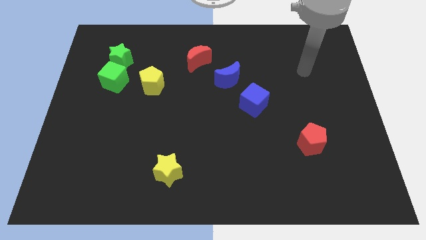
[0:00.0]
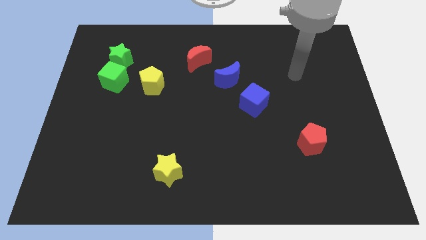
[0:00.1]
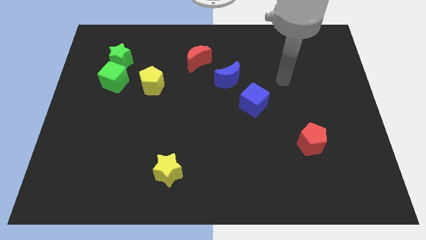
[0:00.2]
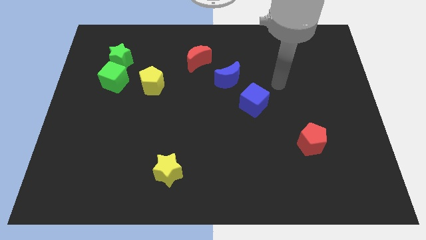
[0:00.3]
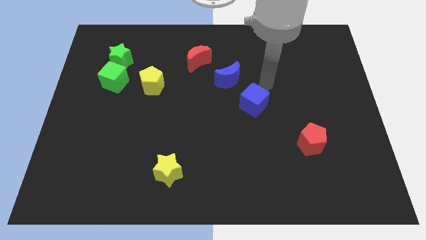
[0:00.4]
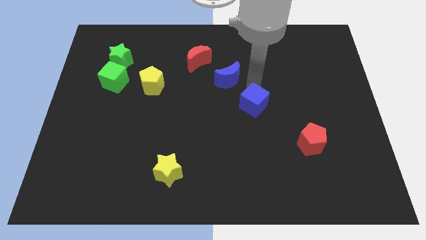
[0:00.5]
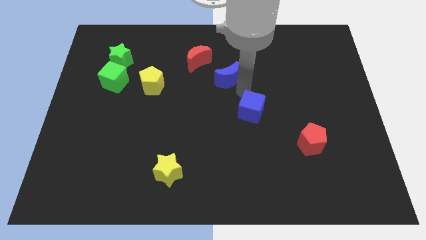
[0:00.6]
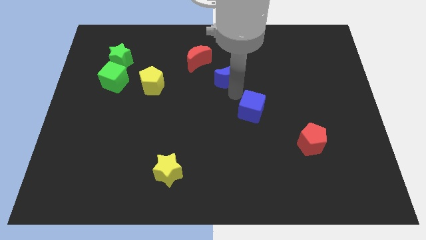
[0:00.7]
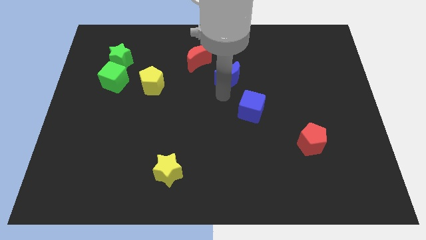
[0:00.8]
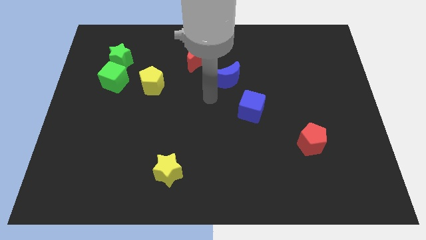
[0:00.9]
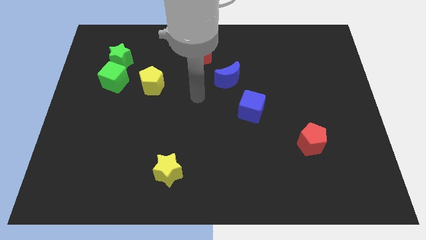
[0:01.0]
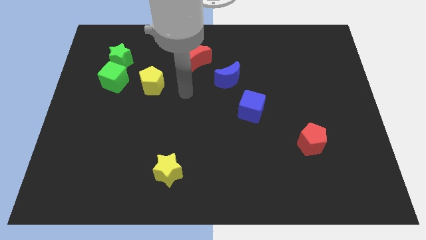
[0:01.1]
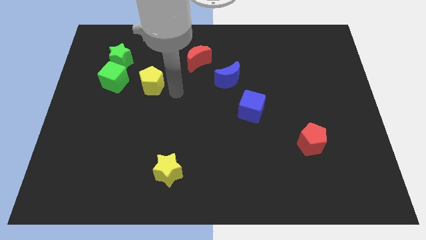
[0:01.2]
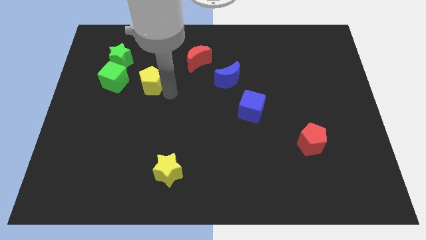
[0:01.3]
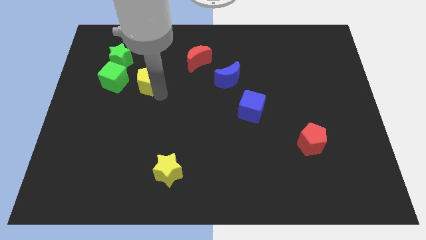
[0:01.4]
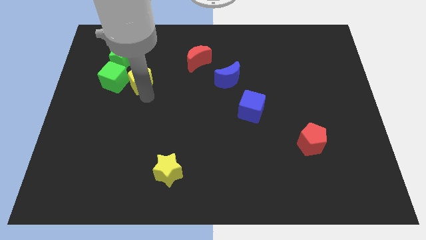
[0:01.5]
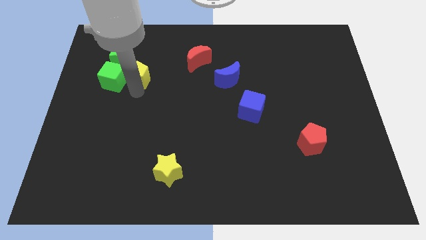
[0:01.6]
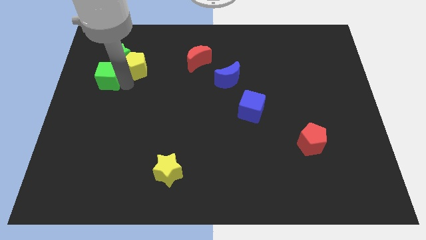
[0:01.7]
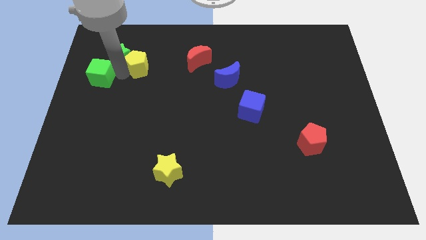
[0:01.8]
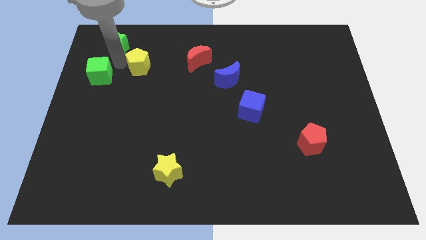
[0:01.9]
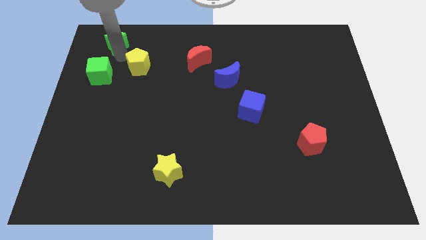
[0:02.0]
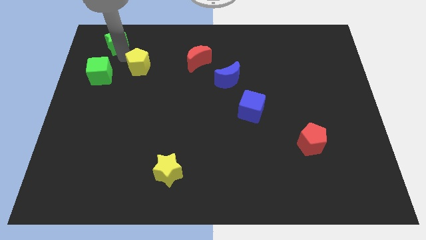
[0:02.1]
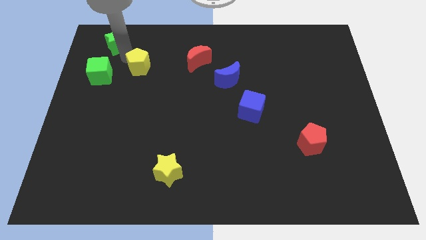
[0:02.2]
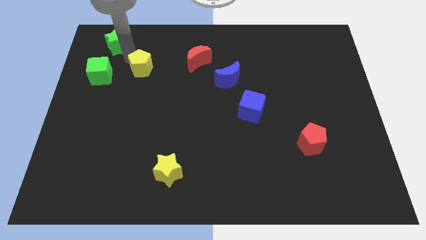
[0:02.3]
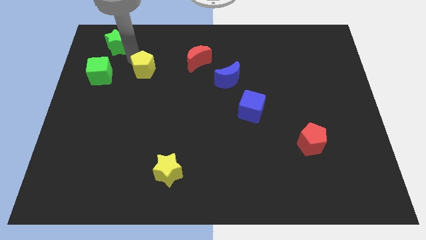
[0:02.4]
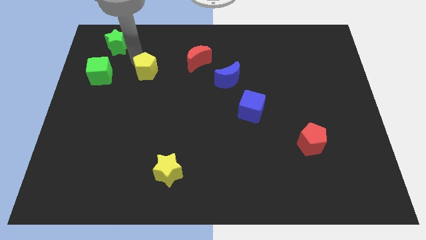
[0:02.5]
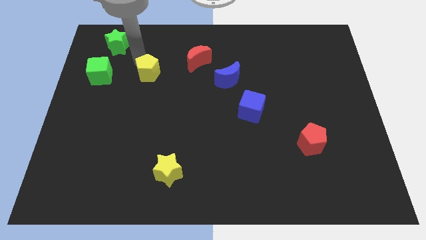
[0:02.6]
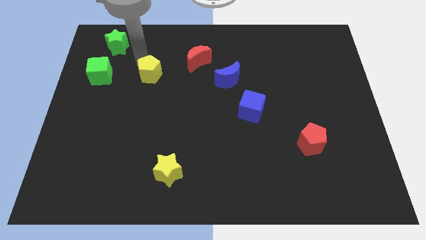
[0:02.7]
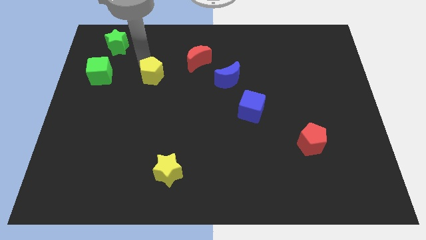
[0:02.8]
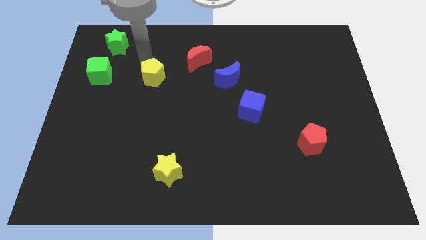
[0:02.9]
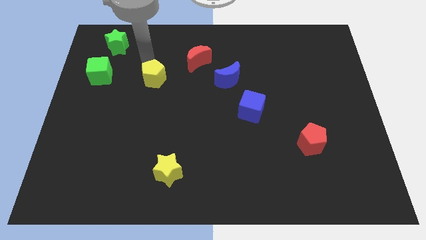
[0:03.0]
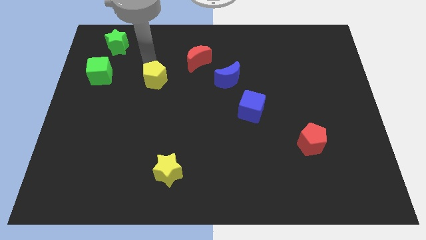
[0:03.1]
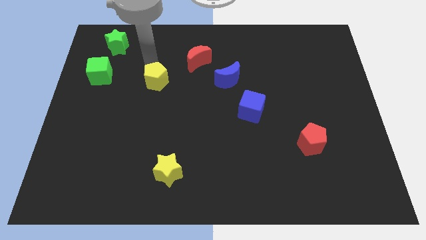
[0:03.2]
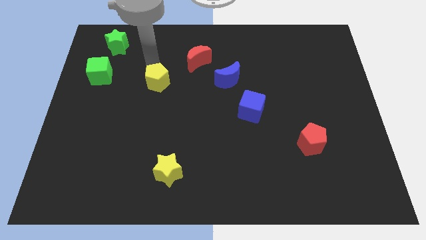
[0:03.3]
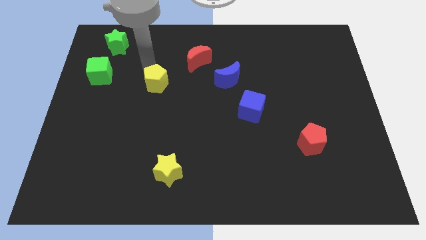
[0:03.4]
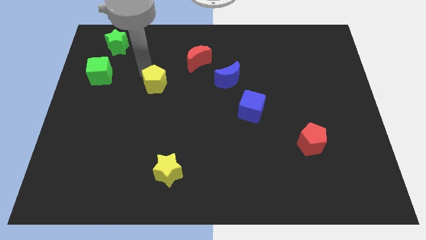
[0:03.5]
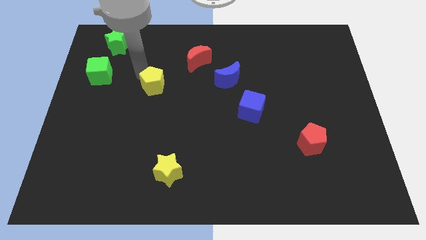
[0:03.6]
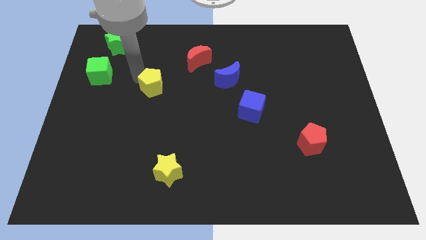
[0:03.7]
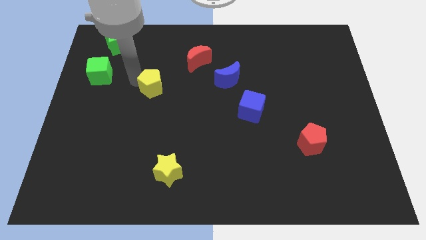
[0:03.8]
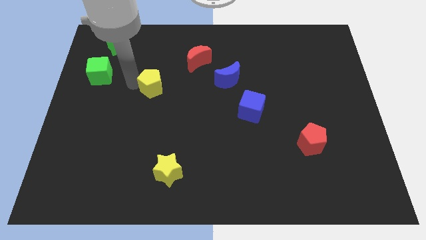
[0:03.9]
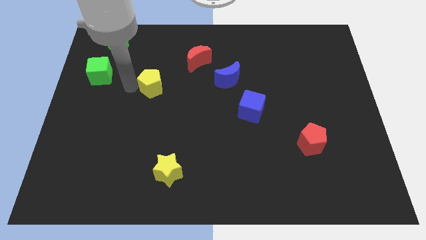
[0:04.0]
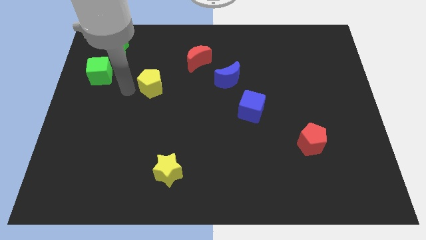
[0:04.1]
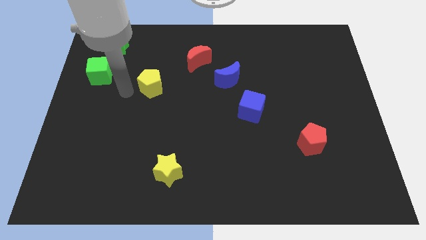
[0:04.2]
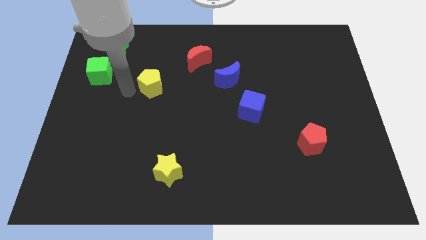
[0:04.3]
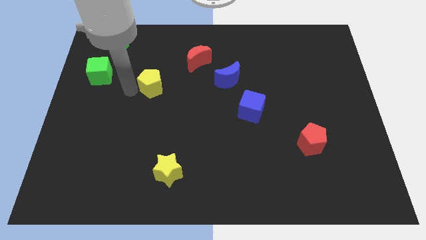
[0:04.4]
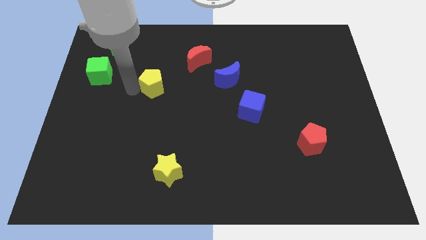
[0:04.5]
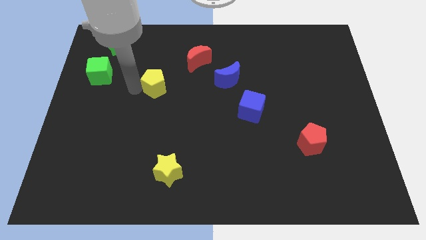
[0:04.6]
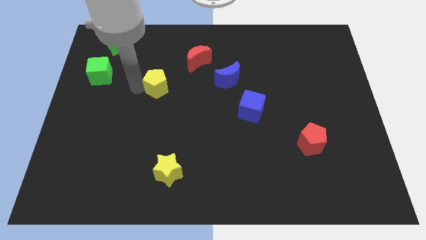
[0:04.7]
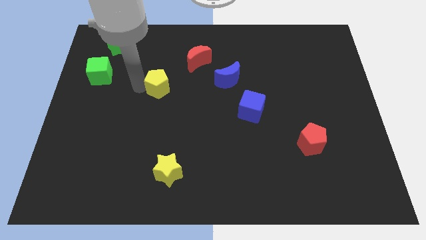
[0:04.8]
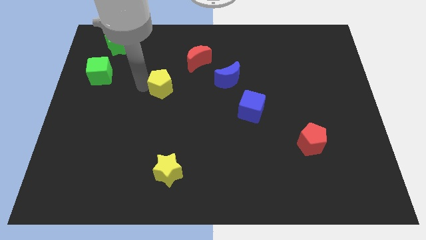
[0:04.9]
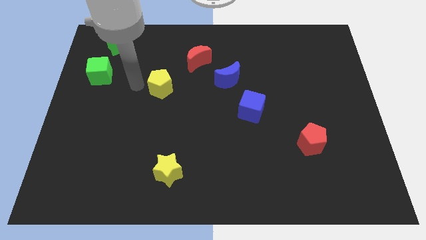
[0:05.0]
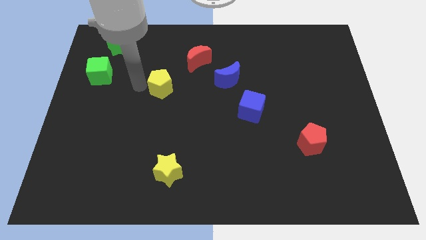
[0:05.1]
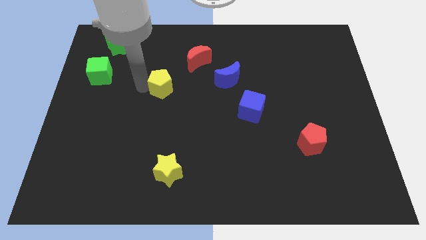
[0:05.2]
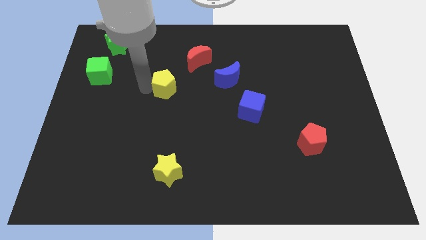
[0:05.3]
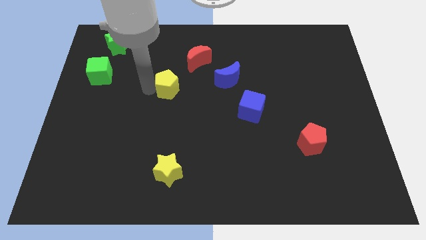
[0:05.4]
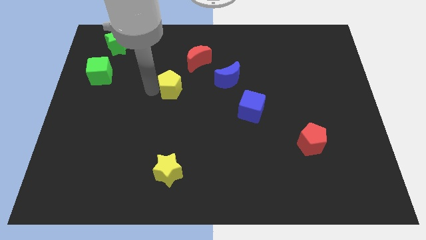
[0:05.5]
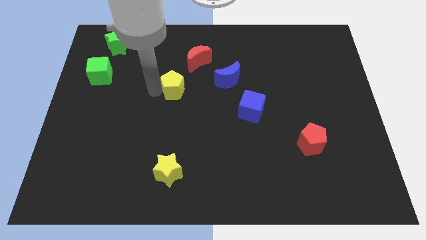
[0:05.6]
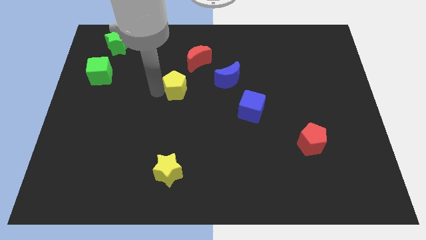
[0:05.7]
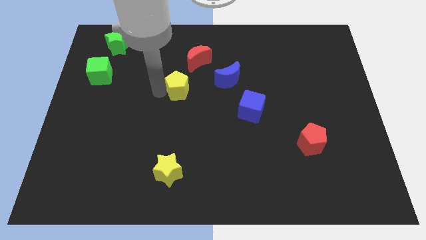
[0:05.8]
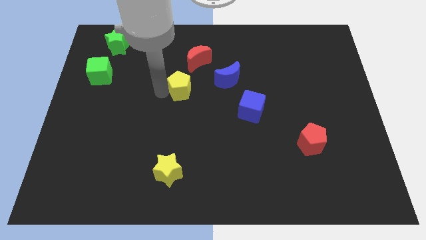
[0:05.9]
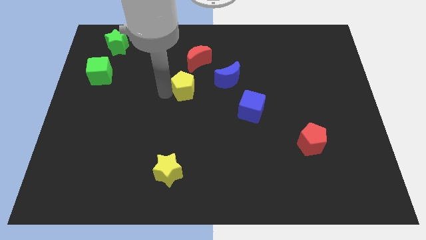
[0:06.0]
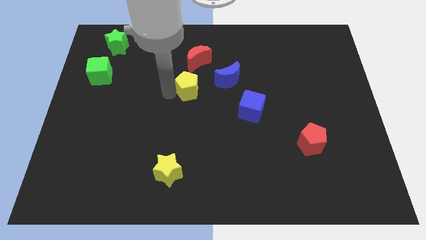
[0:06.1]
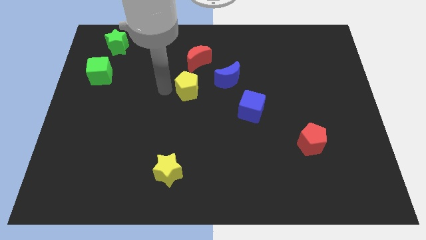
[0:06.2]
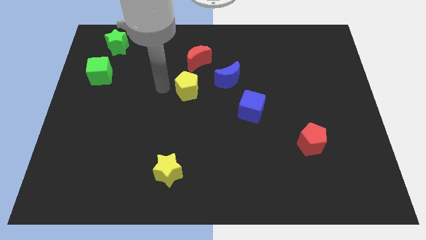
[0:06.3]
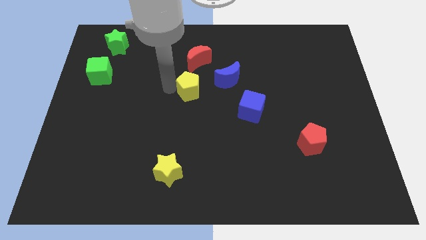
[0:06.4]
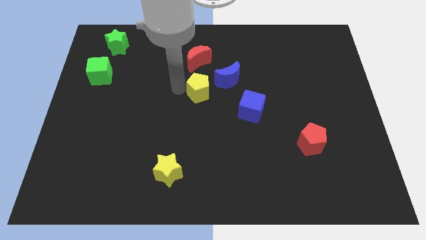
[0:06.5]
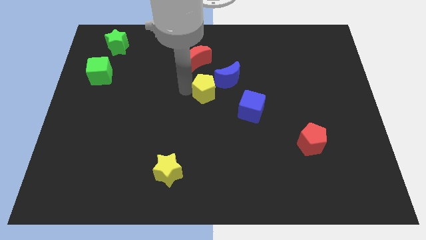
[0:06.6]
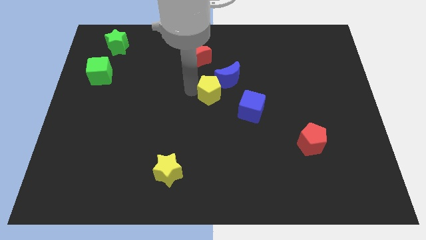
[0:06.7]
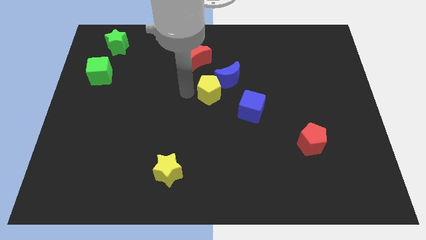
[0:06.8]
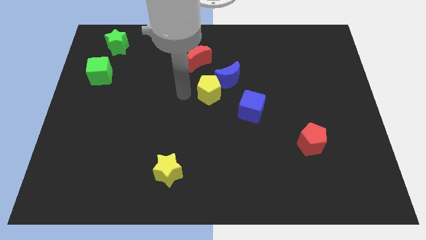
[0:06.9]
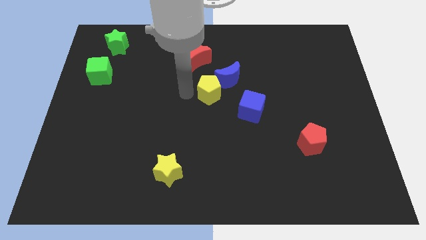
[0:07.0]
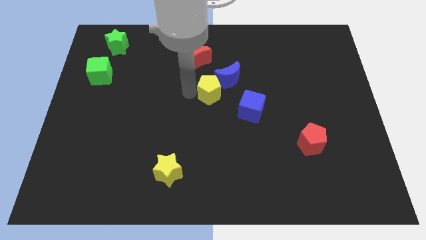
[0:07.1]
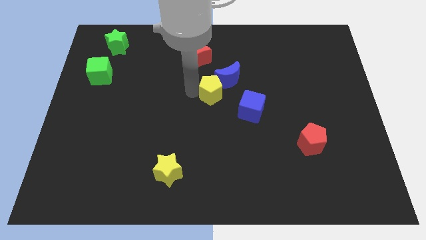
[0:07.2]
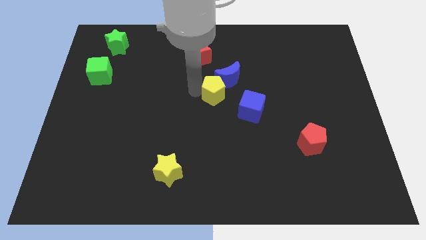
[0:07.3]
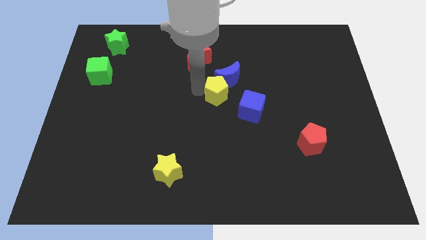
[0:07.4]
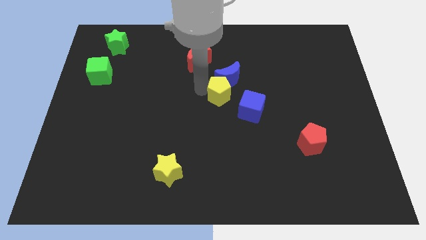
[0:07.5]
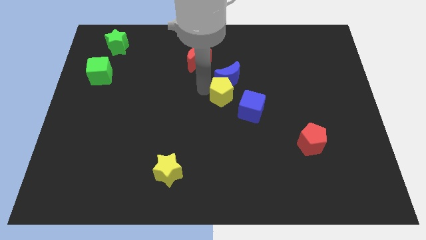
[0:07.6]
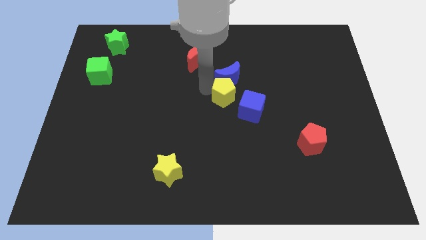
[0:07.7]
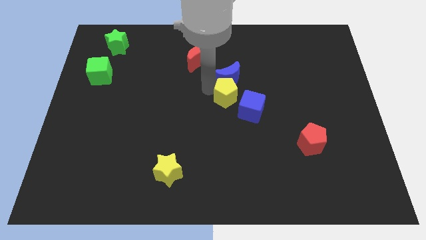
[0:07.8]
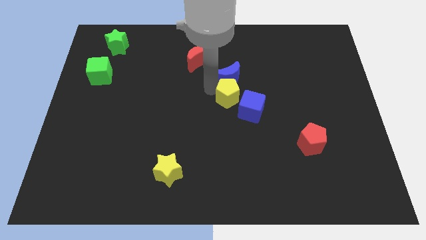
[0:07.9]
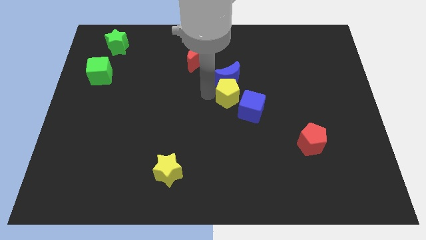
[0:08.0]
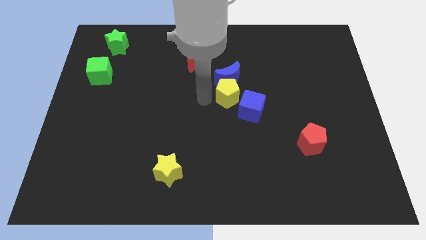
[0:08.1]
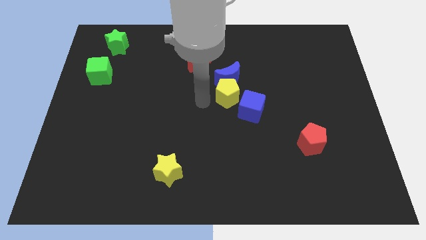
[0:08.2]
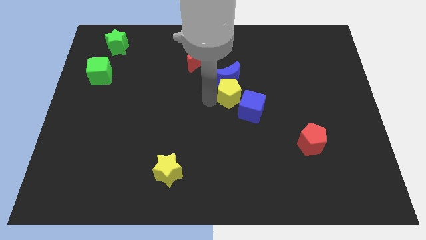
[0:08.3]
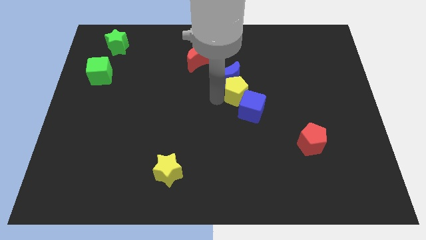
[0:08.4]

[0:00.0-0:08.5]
push the yellow pentagon right
